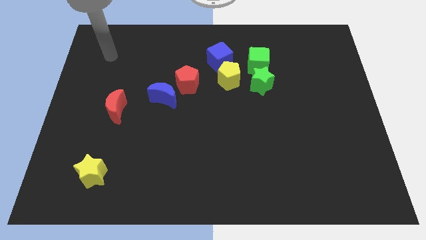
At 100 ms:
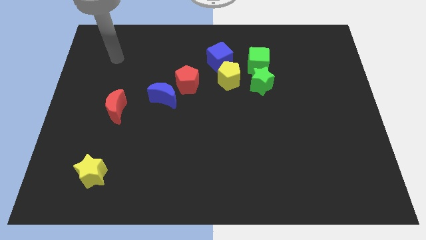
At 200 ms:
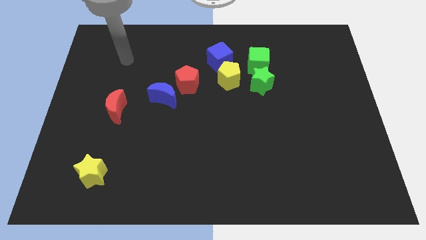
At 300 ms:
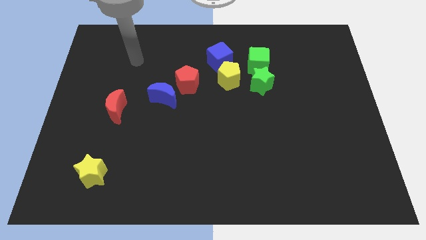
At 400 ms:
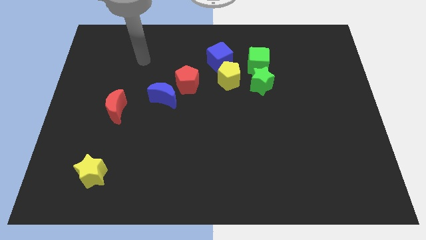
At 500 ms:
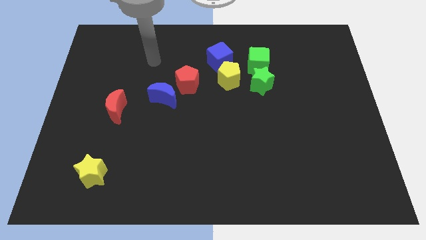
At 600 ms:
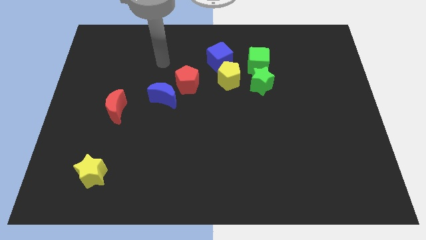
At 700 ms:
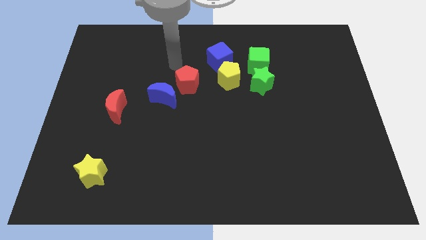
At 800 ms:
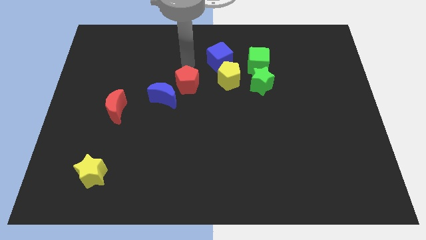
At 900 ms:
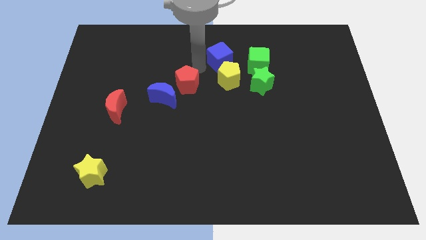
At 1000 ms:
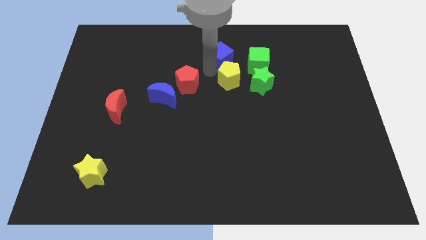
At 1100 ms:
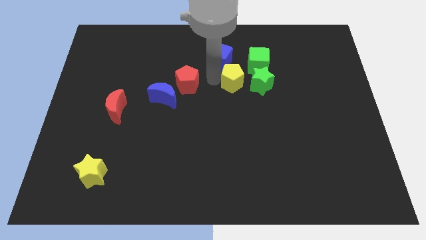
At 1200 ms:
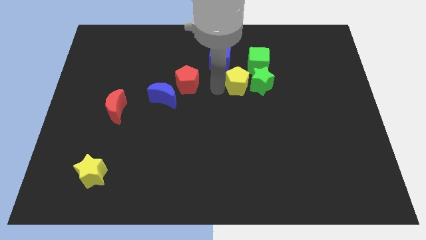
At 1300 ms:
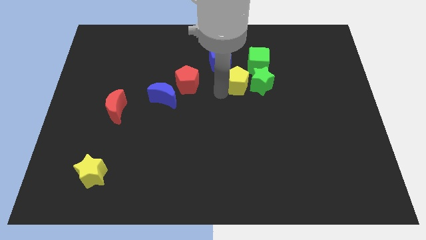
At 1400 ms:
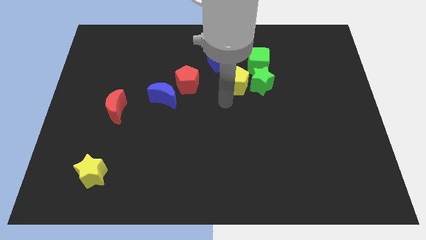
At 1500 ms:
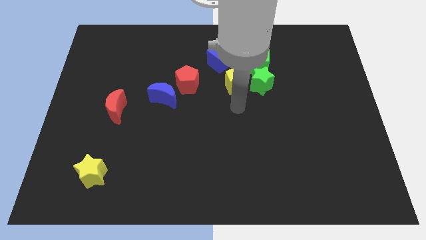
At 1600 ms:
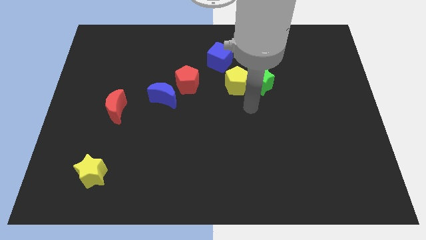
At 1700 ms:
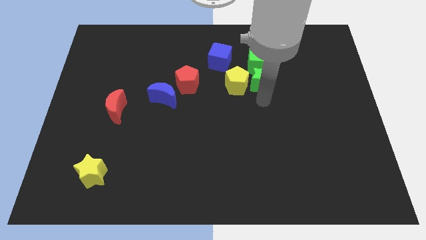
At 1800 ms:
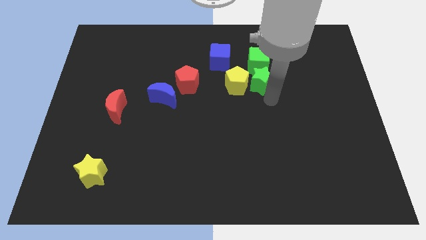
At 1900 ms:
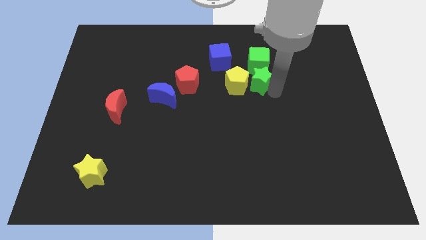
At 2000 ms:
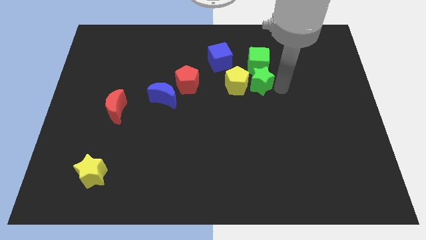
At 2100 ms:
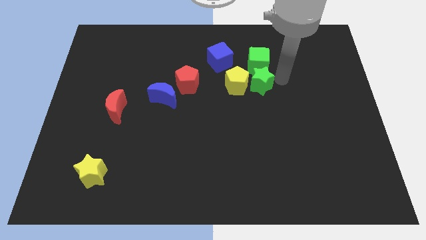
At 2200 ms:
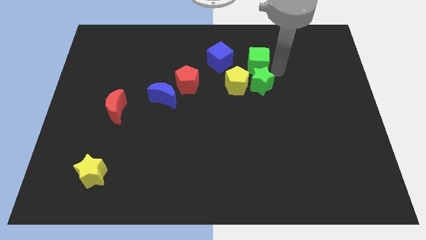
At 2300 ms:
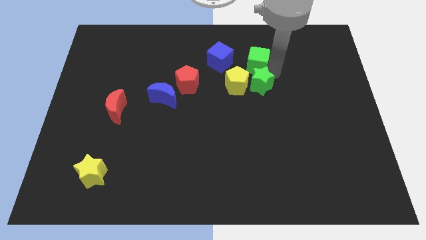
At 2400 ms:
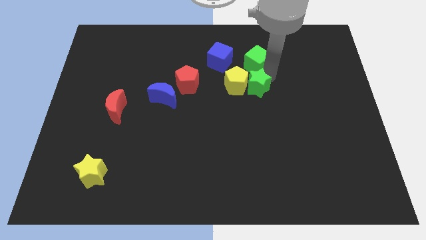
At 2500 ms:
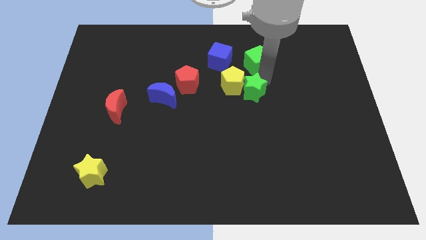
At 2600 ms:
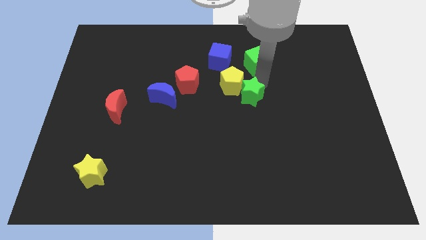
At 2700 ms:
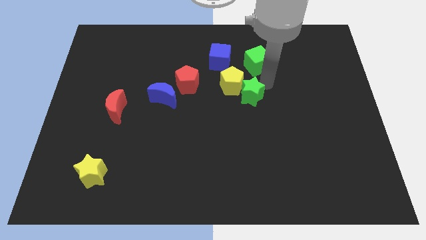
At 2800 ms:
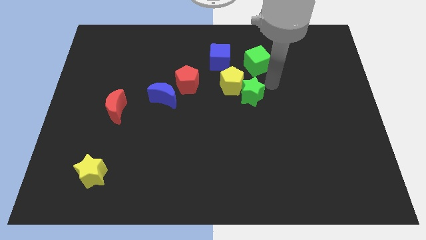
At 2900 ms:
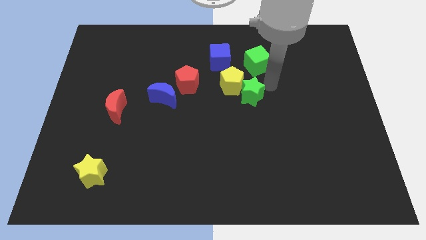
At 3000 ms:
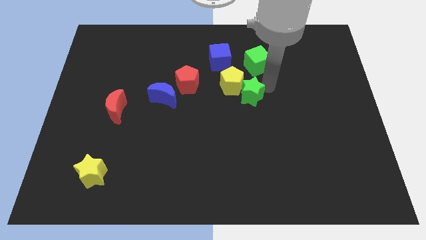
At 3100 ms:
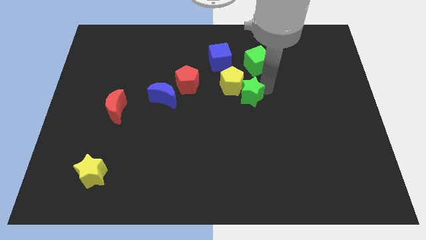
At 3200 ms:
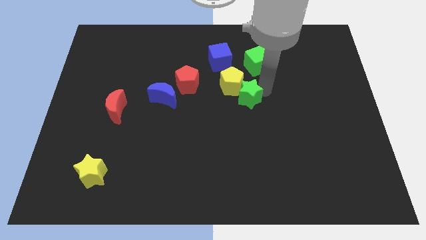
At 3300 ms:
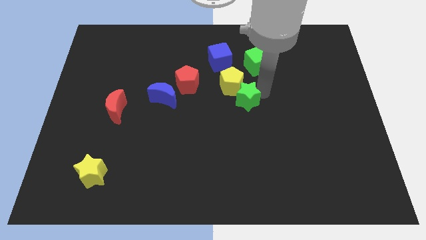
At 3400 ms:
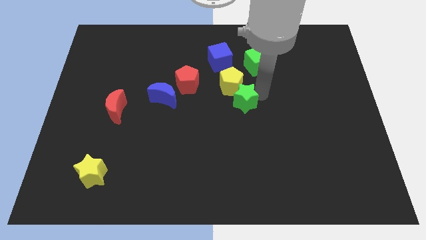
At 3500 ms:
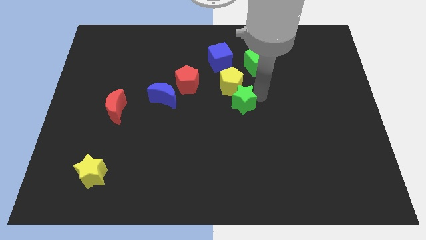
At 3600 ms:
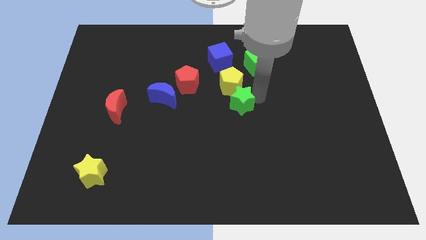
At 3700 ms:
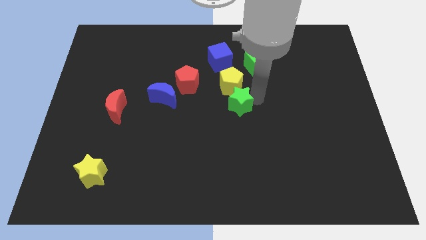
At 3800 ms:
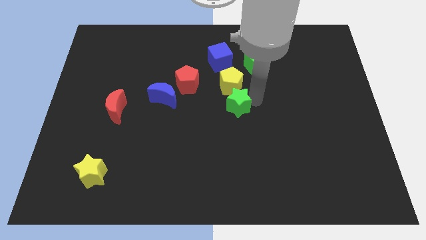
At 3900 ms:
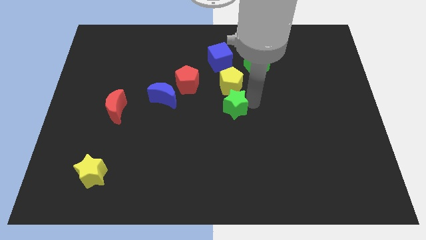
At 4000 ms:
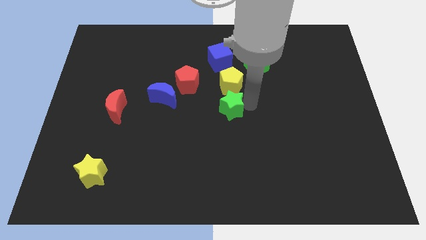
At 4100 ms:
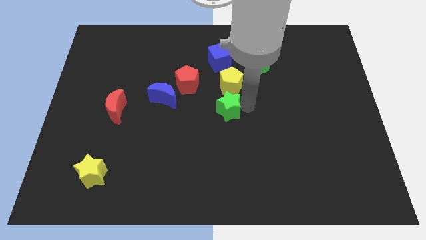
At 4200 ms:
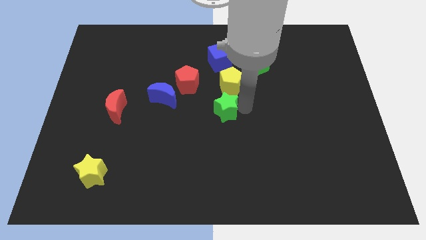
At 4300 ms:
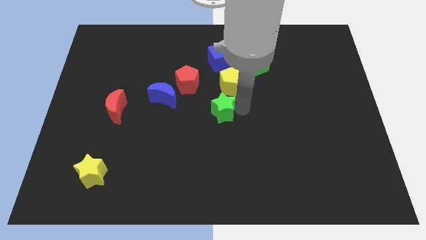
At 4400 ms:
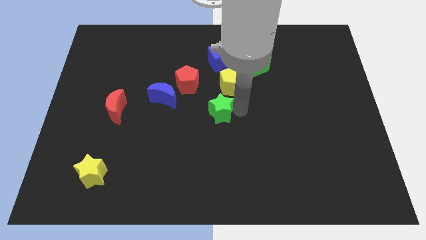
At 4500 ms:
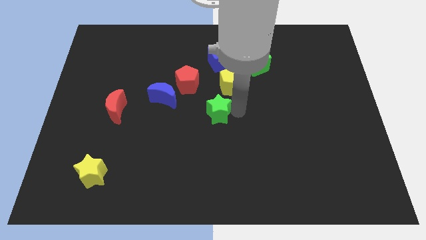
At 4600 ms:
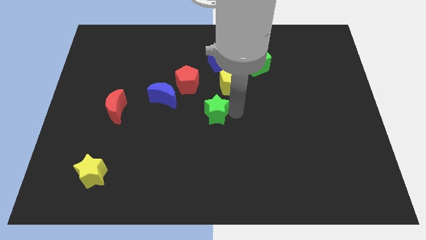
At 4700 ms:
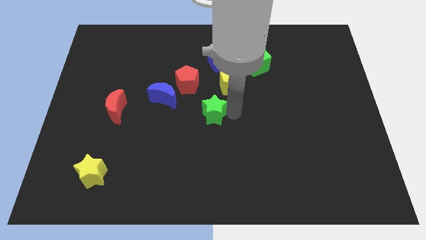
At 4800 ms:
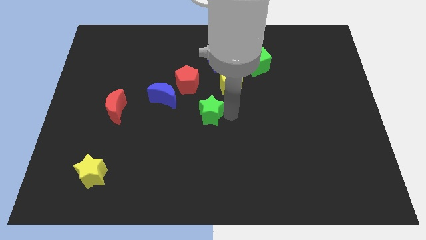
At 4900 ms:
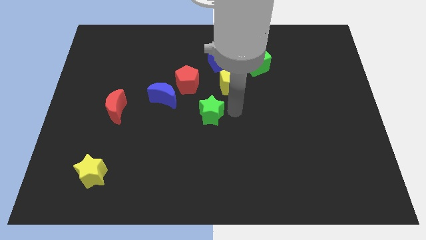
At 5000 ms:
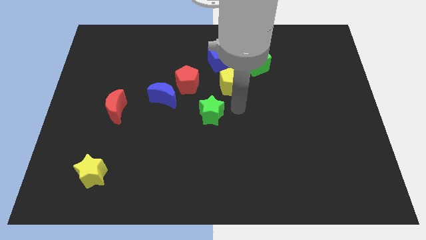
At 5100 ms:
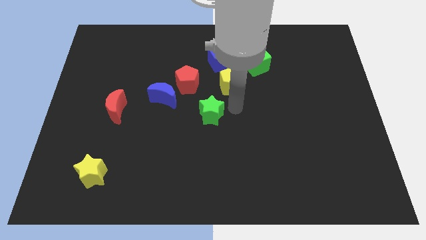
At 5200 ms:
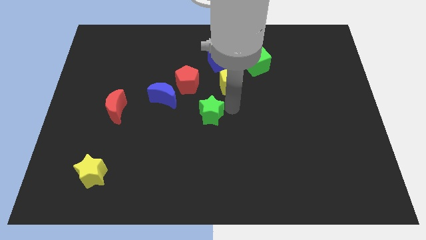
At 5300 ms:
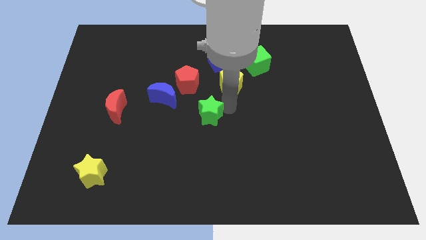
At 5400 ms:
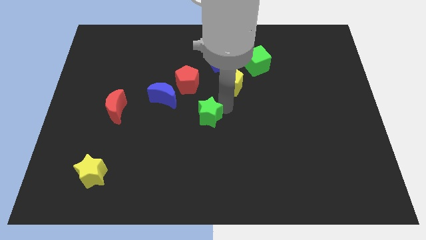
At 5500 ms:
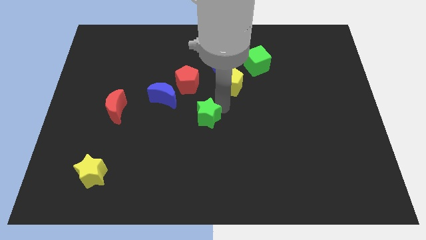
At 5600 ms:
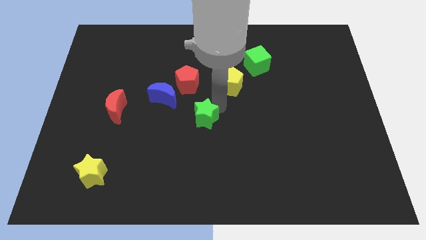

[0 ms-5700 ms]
move the green star below the red pentagon

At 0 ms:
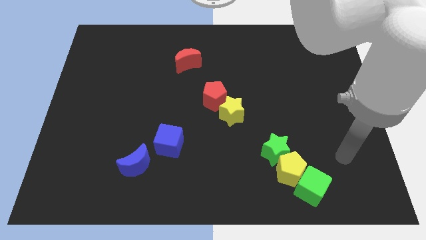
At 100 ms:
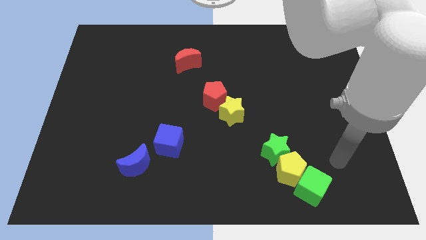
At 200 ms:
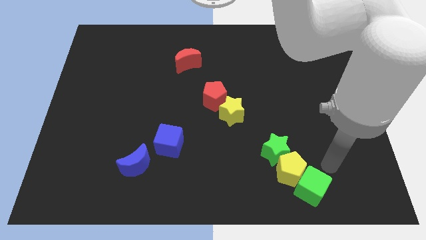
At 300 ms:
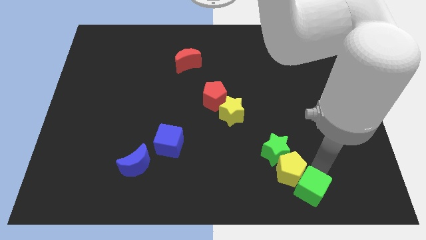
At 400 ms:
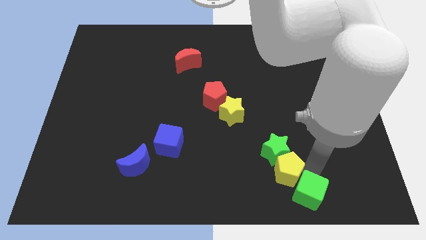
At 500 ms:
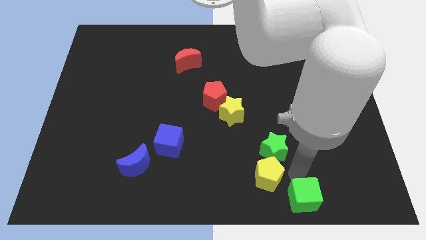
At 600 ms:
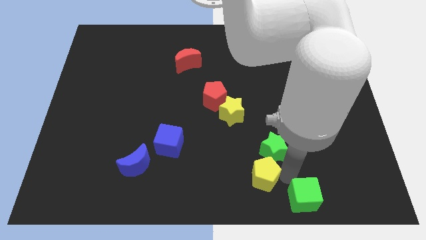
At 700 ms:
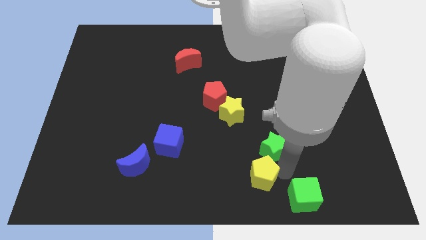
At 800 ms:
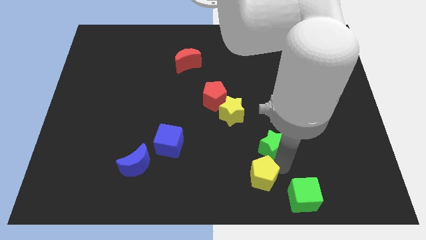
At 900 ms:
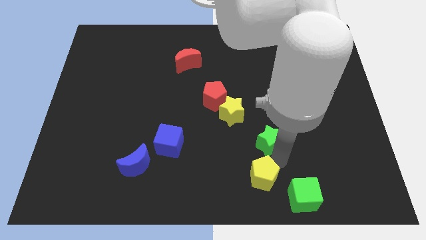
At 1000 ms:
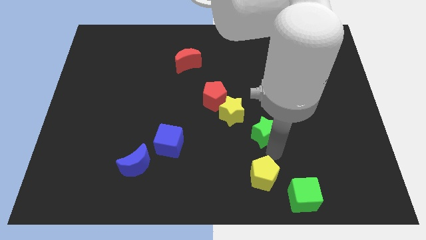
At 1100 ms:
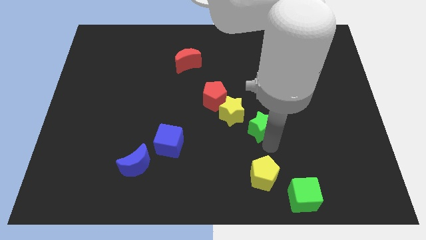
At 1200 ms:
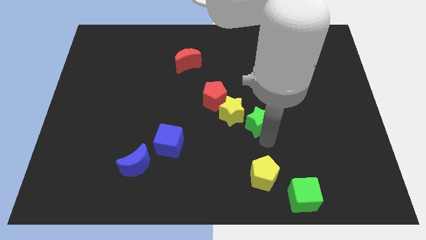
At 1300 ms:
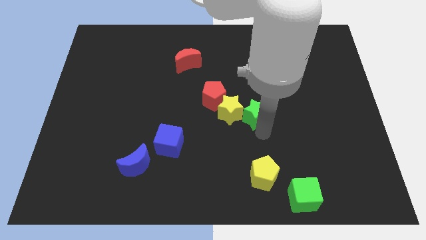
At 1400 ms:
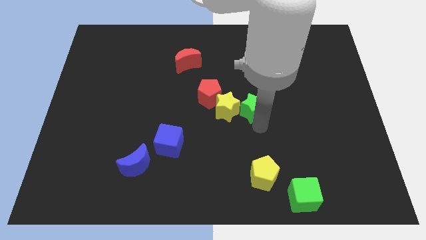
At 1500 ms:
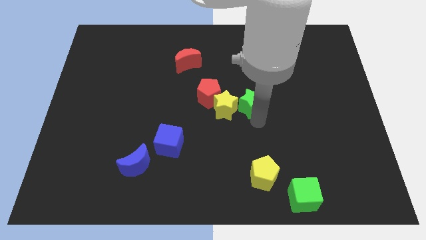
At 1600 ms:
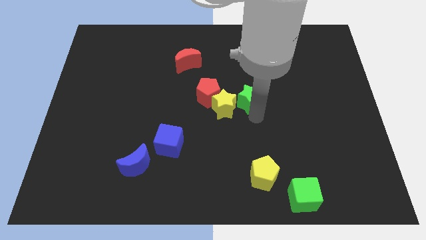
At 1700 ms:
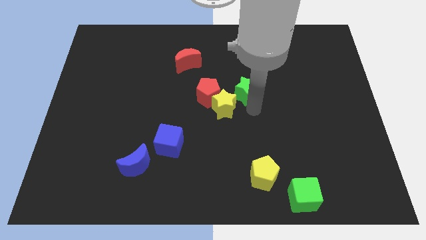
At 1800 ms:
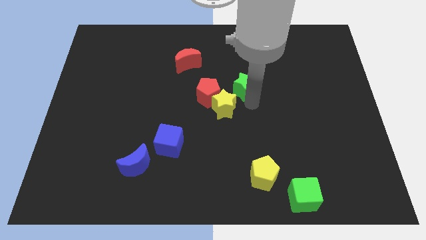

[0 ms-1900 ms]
move the green star diagonally up and to the right of the red pentagon

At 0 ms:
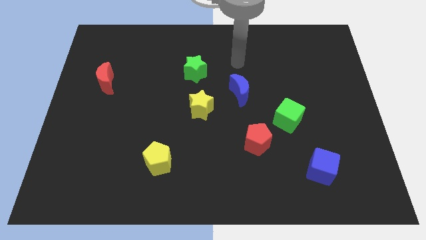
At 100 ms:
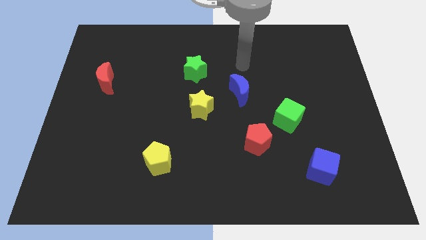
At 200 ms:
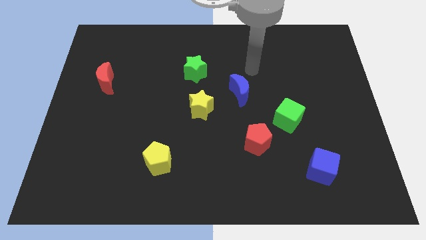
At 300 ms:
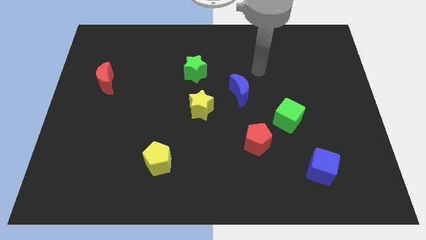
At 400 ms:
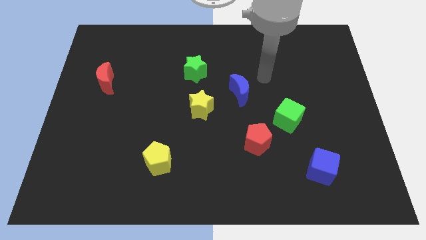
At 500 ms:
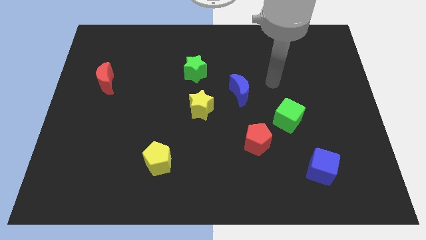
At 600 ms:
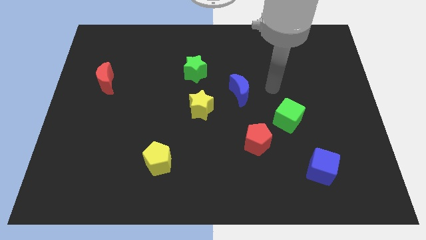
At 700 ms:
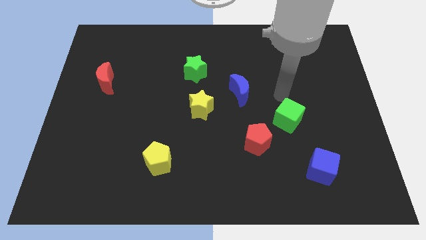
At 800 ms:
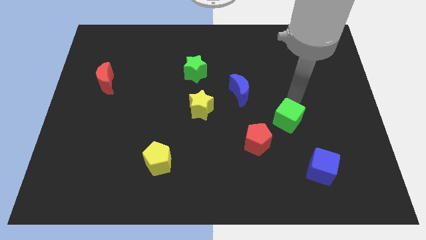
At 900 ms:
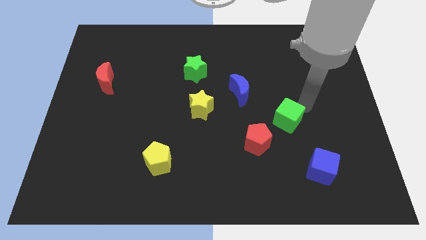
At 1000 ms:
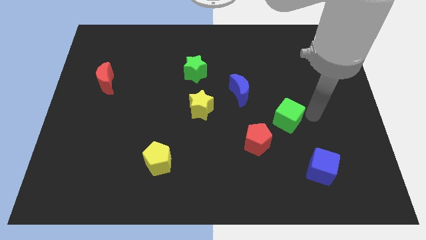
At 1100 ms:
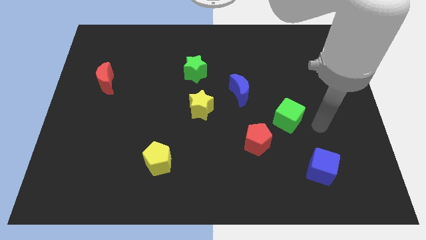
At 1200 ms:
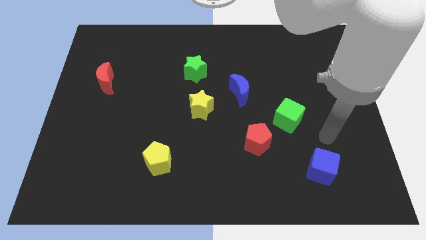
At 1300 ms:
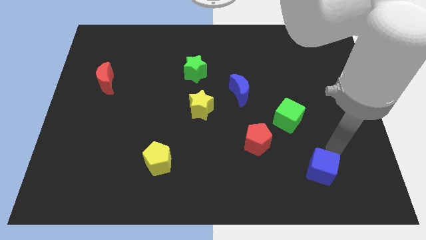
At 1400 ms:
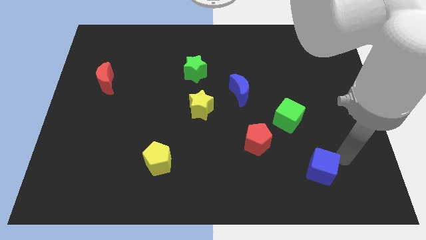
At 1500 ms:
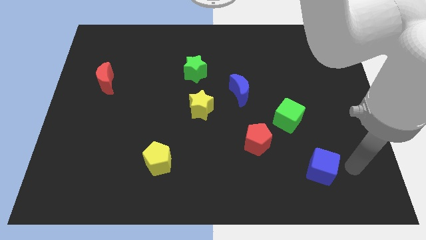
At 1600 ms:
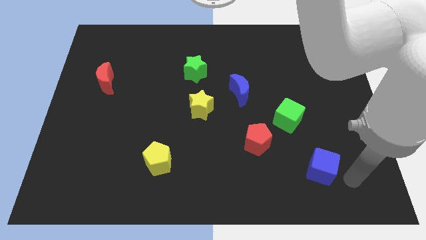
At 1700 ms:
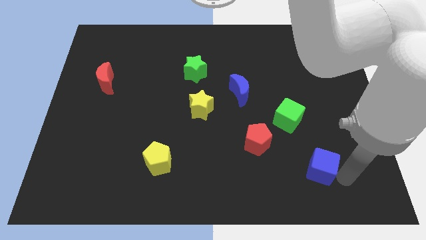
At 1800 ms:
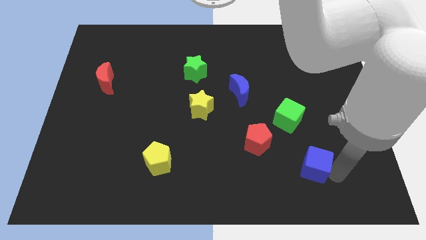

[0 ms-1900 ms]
put the blue cube to the bottom of the green cube
